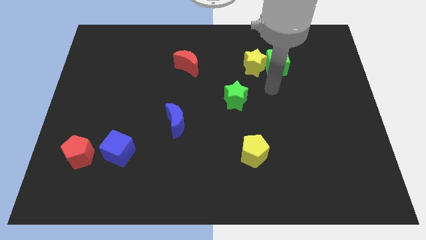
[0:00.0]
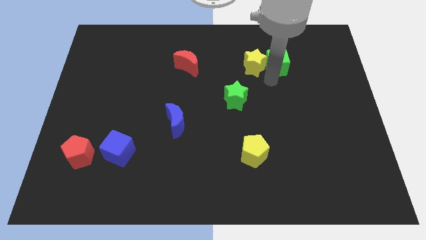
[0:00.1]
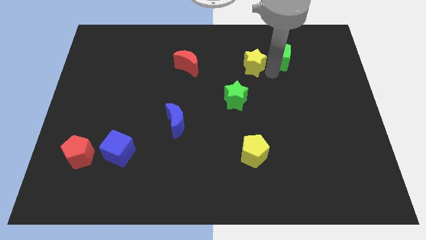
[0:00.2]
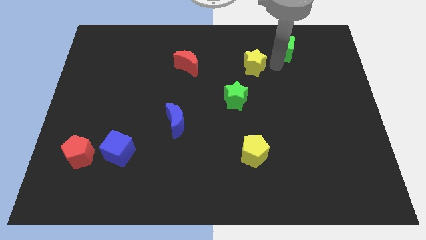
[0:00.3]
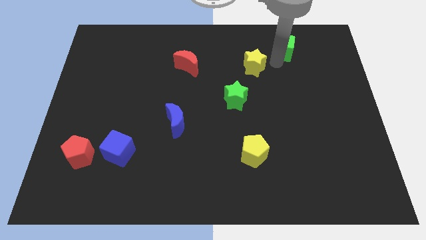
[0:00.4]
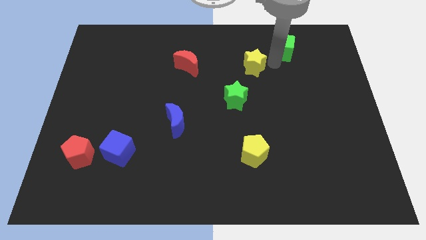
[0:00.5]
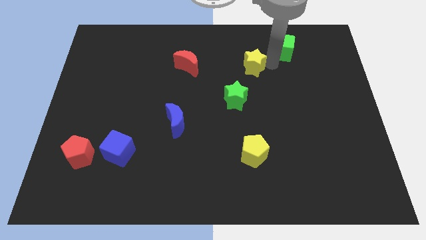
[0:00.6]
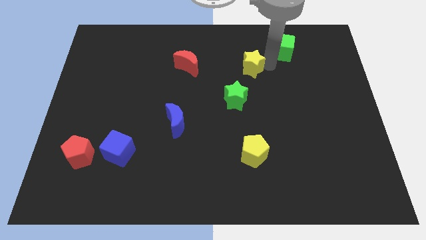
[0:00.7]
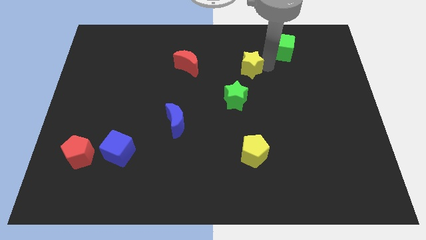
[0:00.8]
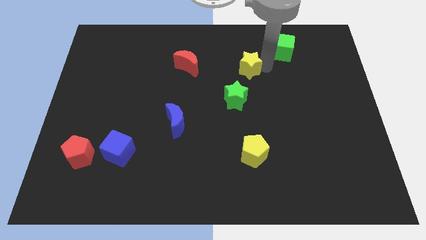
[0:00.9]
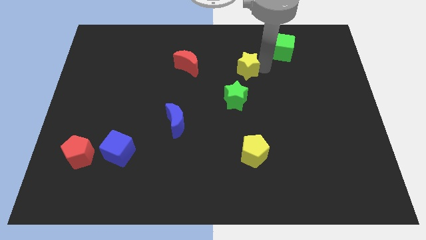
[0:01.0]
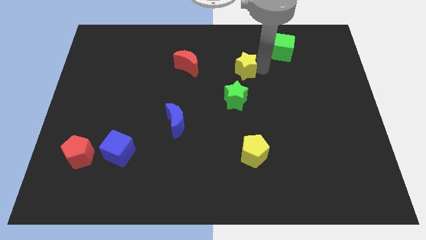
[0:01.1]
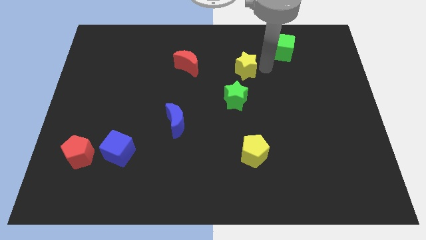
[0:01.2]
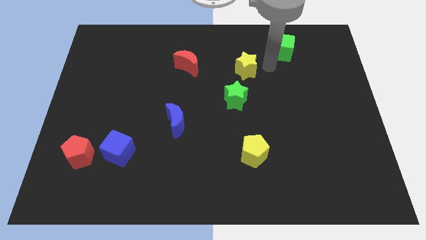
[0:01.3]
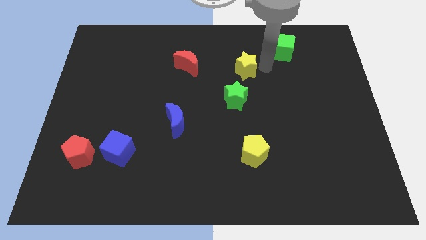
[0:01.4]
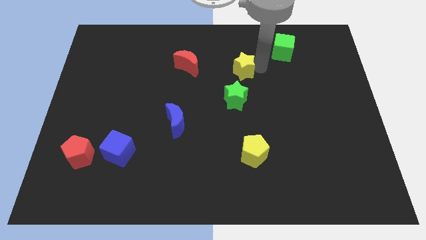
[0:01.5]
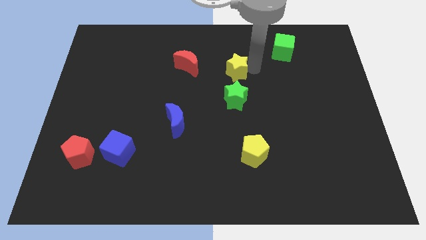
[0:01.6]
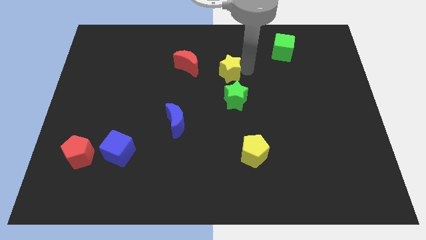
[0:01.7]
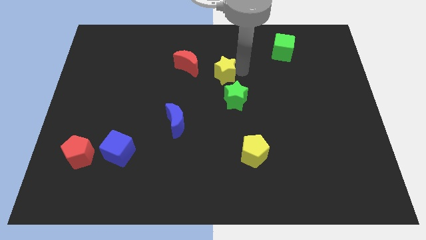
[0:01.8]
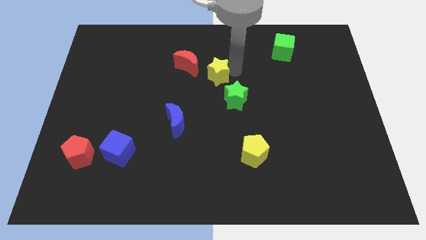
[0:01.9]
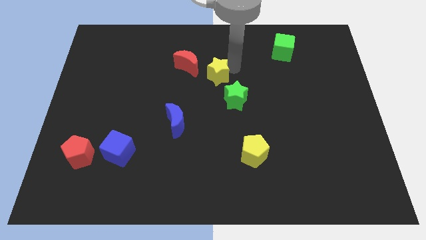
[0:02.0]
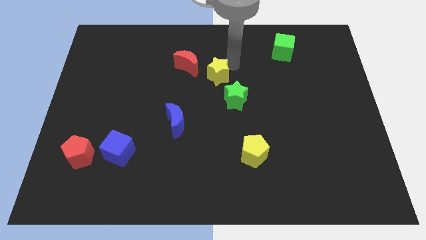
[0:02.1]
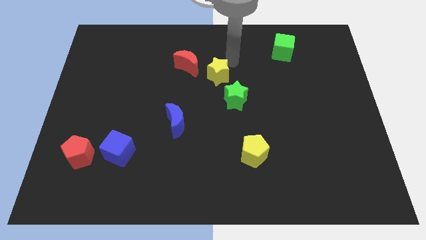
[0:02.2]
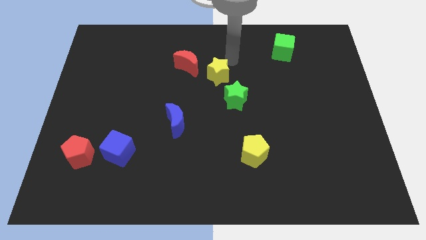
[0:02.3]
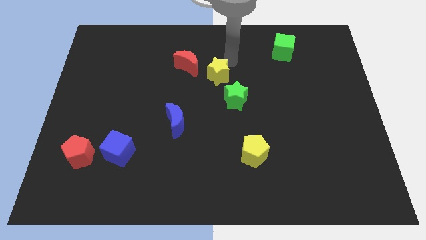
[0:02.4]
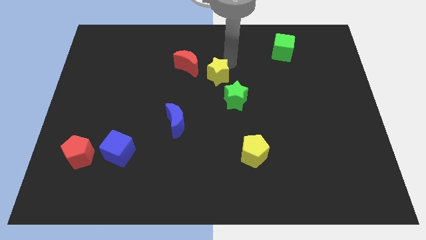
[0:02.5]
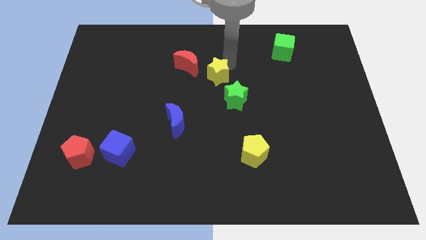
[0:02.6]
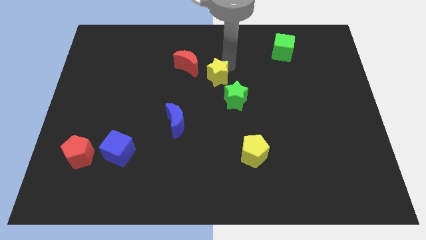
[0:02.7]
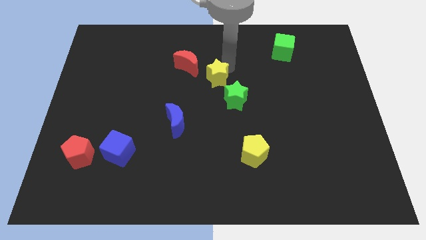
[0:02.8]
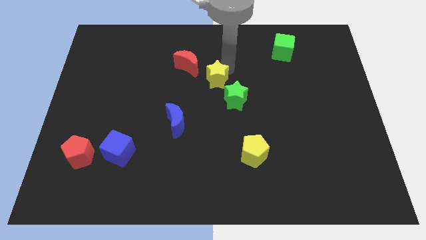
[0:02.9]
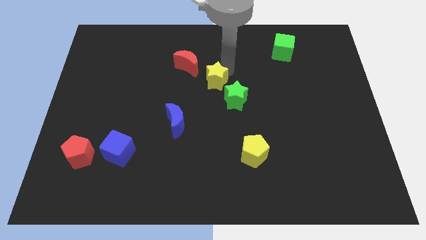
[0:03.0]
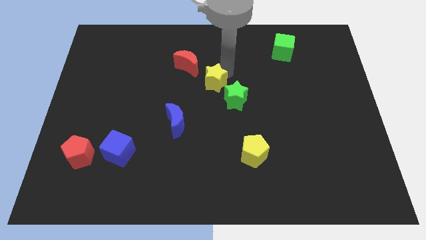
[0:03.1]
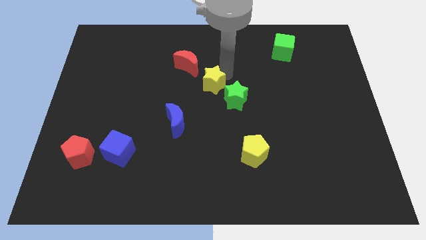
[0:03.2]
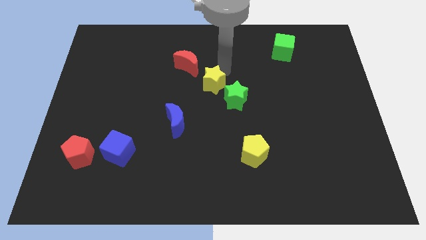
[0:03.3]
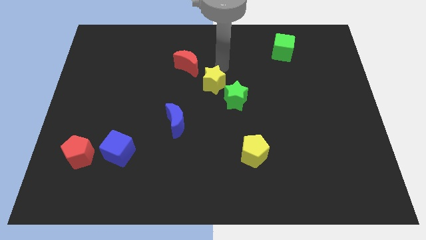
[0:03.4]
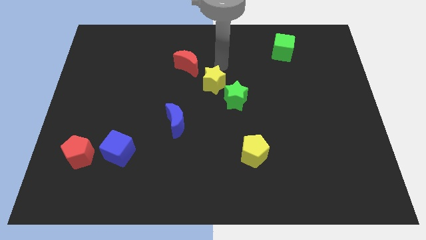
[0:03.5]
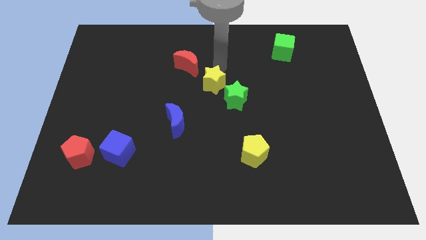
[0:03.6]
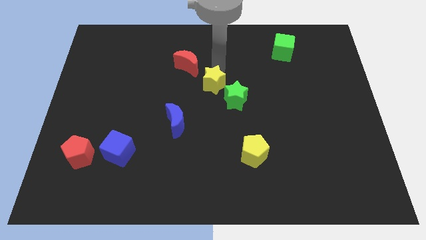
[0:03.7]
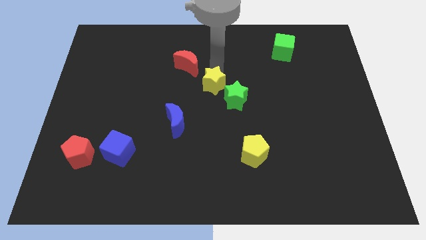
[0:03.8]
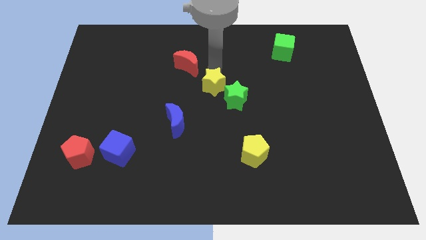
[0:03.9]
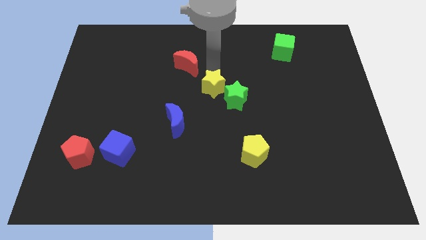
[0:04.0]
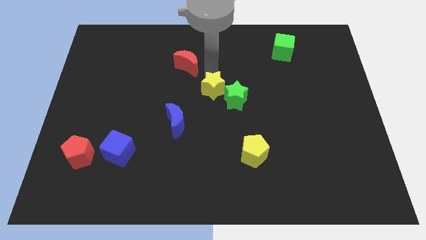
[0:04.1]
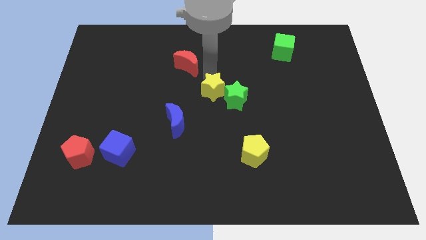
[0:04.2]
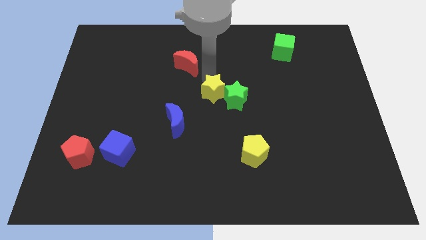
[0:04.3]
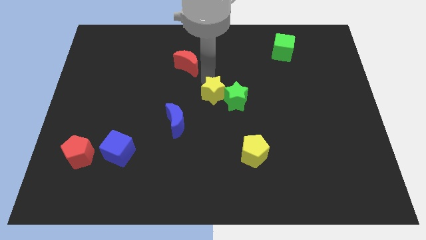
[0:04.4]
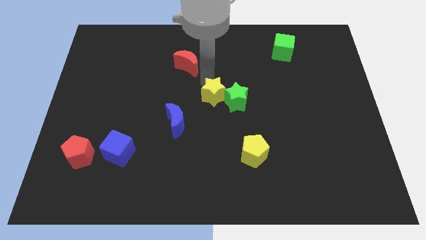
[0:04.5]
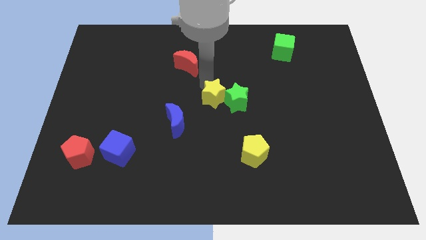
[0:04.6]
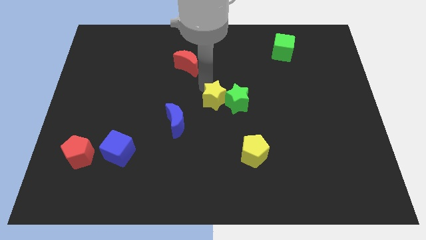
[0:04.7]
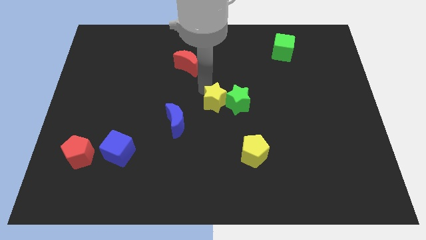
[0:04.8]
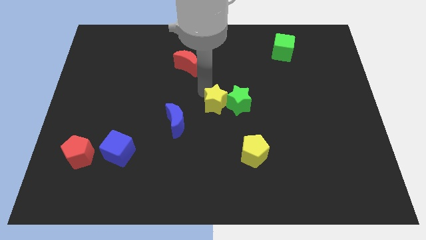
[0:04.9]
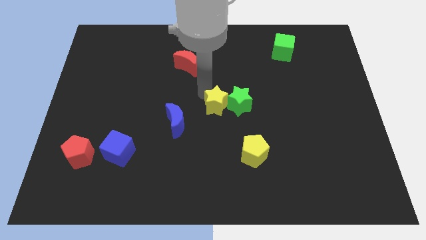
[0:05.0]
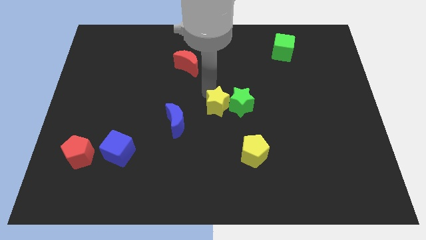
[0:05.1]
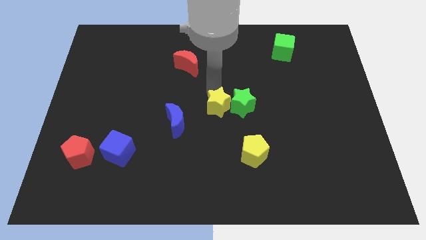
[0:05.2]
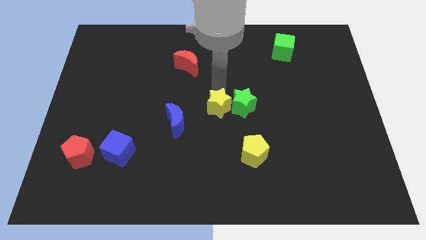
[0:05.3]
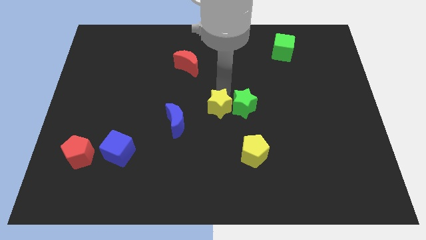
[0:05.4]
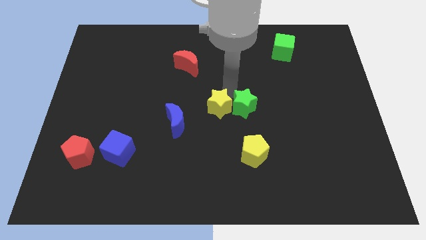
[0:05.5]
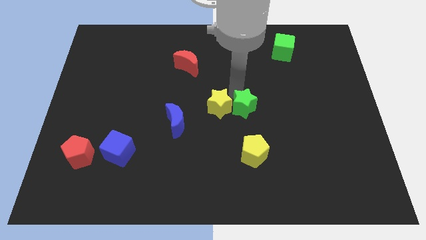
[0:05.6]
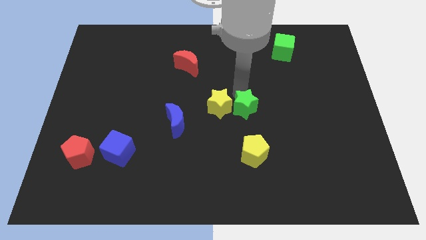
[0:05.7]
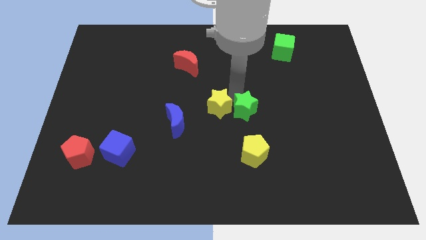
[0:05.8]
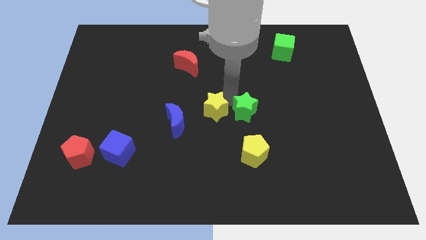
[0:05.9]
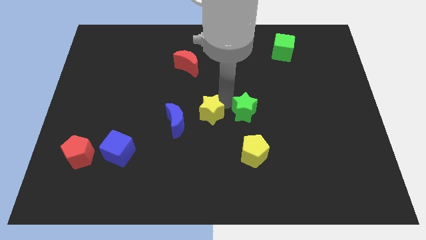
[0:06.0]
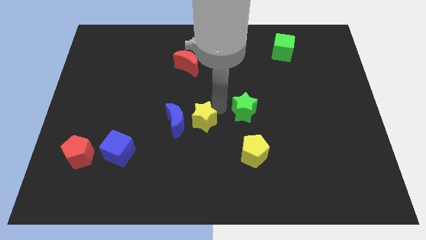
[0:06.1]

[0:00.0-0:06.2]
put the yellow star close to the blue moon

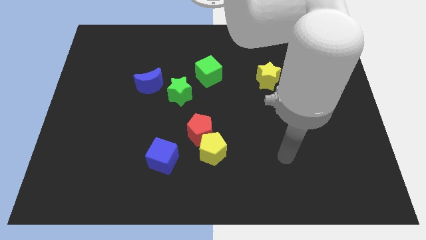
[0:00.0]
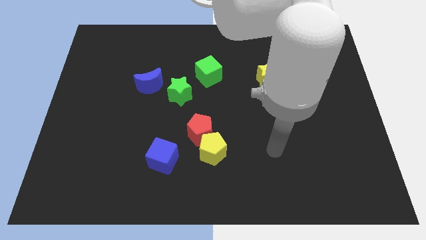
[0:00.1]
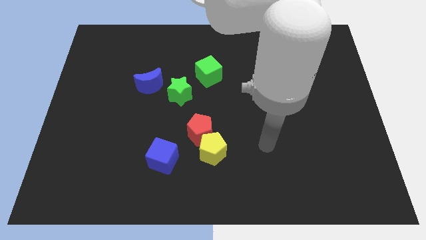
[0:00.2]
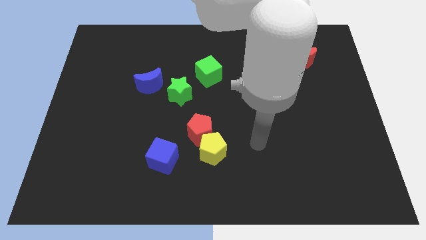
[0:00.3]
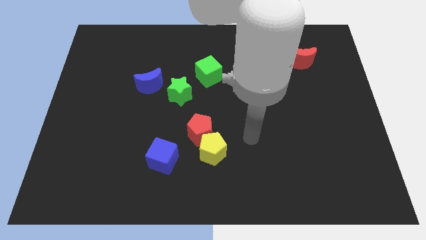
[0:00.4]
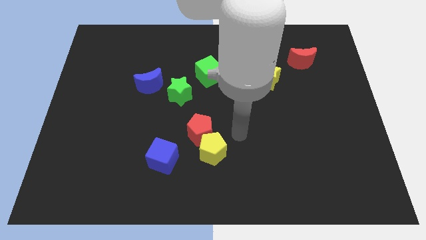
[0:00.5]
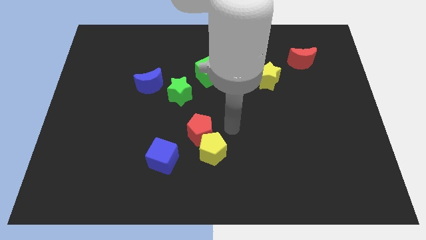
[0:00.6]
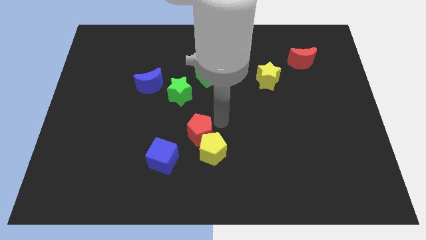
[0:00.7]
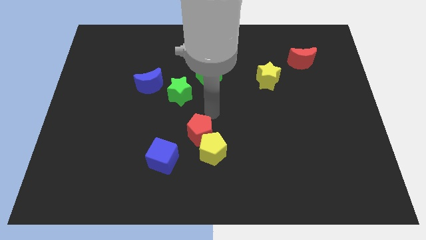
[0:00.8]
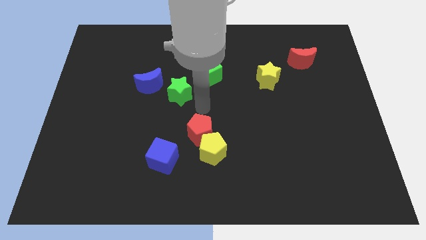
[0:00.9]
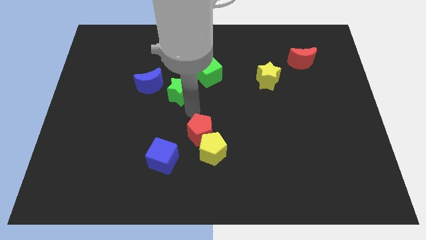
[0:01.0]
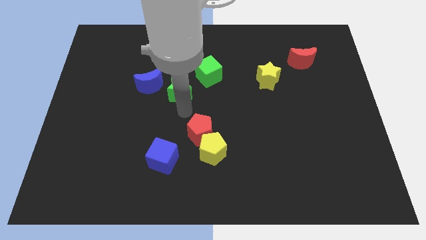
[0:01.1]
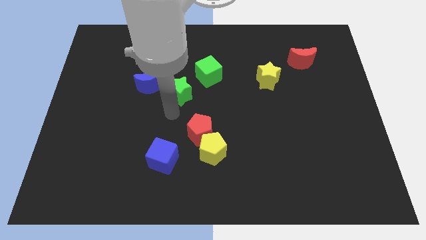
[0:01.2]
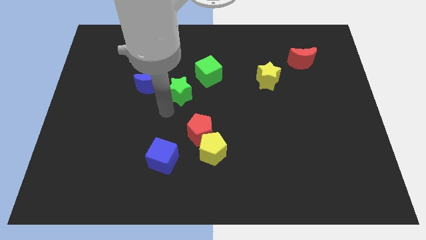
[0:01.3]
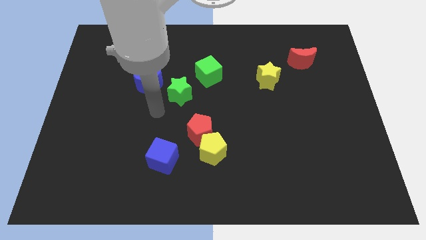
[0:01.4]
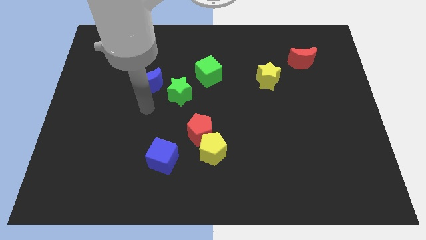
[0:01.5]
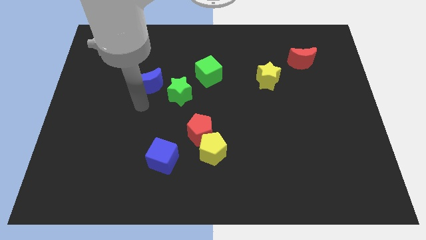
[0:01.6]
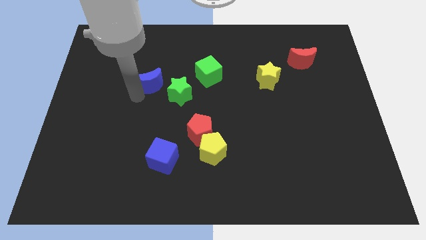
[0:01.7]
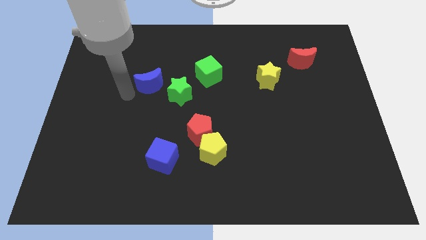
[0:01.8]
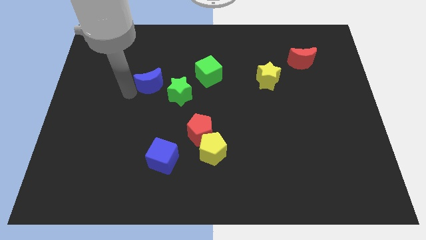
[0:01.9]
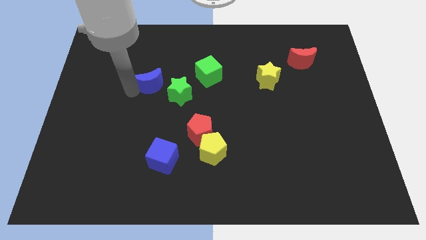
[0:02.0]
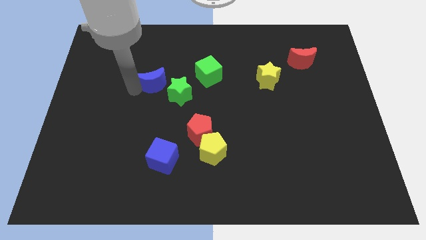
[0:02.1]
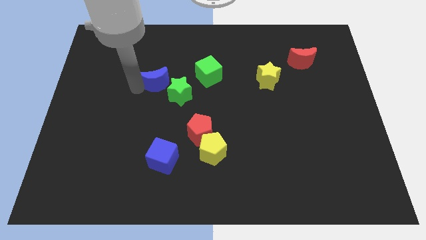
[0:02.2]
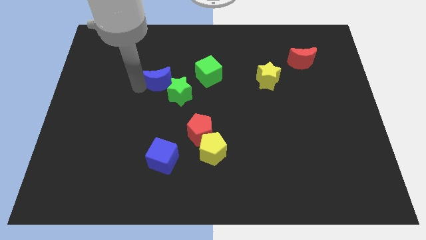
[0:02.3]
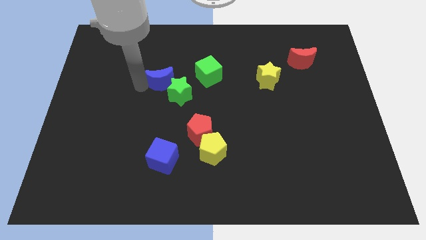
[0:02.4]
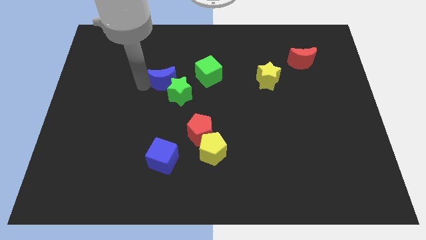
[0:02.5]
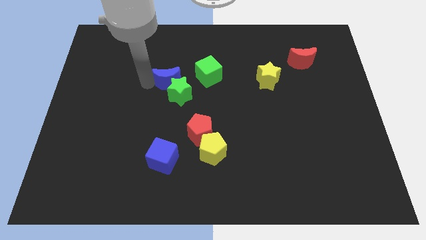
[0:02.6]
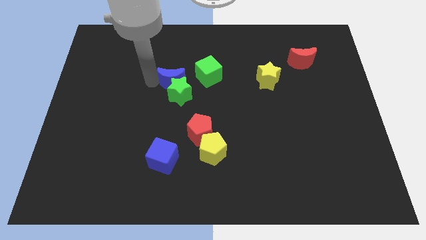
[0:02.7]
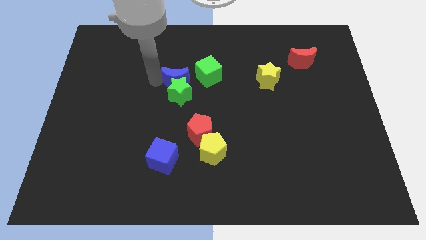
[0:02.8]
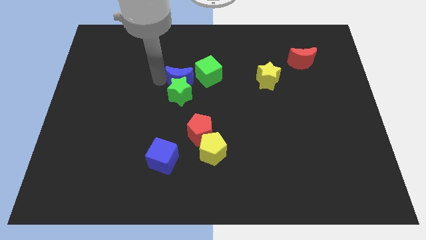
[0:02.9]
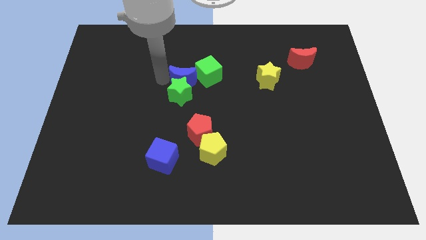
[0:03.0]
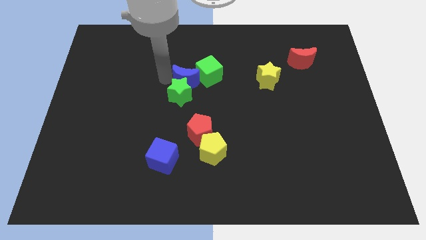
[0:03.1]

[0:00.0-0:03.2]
put the blue moon to the green cube
